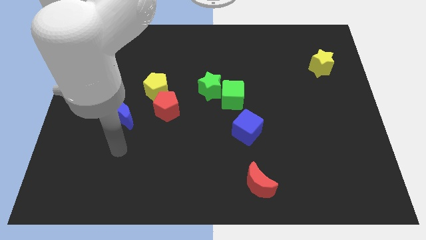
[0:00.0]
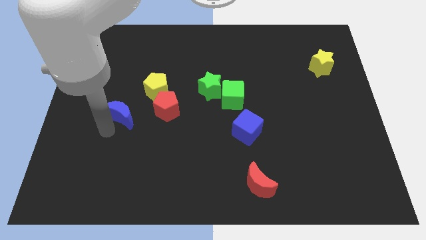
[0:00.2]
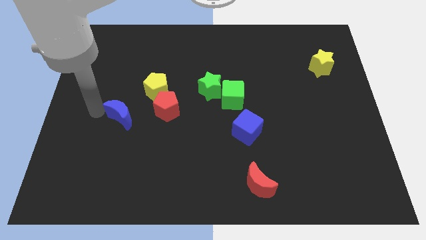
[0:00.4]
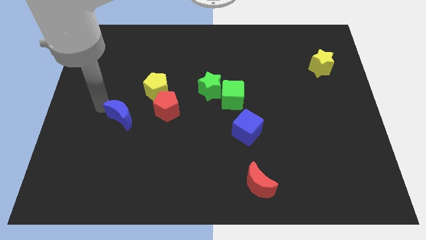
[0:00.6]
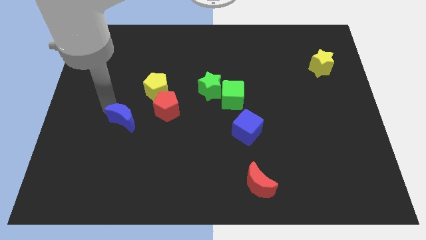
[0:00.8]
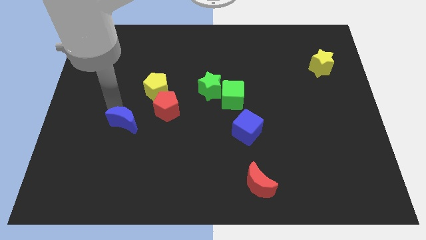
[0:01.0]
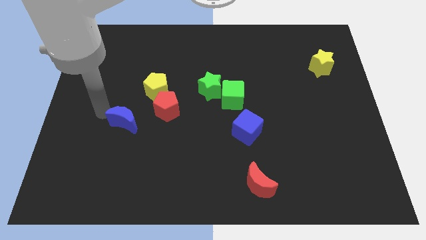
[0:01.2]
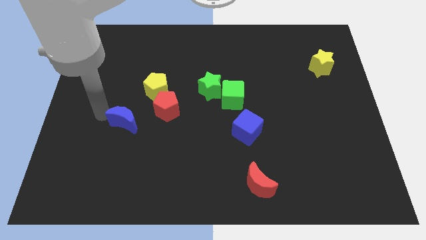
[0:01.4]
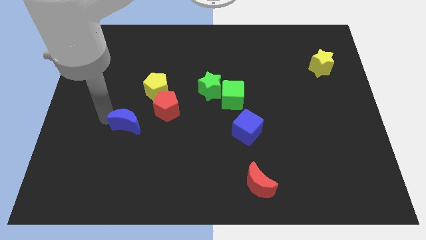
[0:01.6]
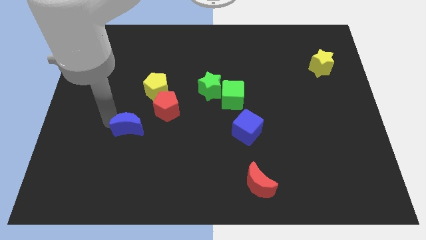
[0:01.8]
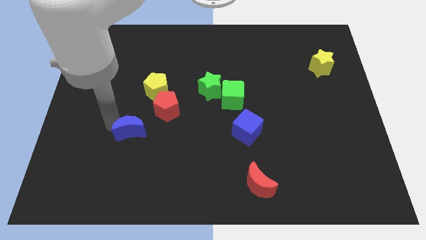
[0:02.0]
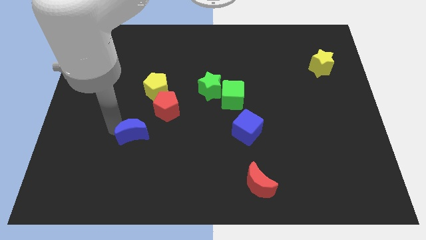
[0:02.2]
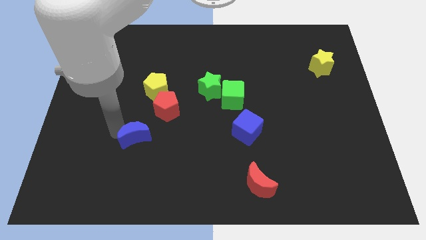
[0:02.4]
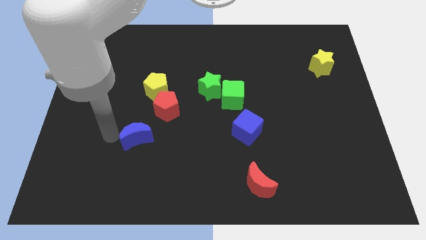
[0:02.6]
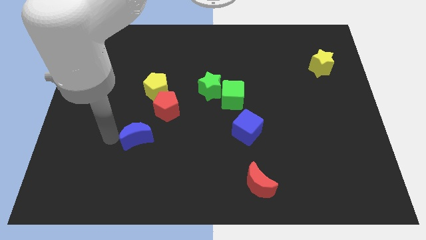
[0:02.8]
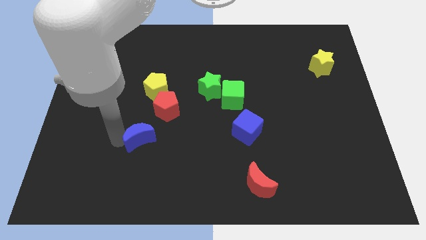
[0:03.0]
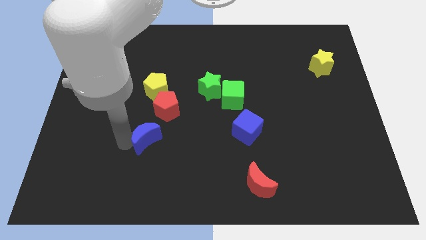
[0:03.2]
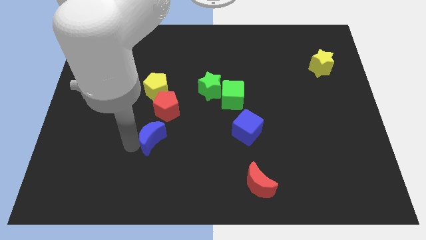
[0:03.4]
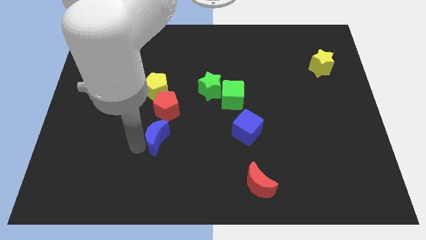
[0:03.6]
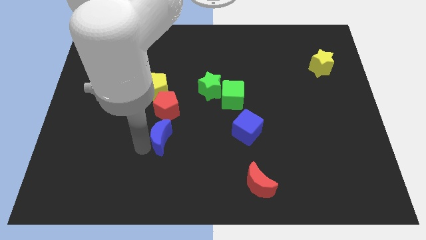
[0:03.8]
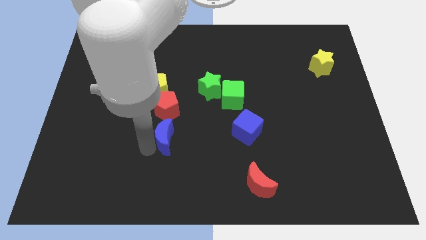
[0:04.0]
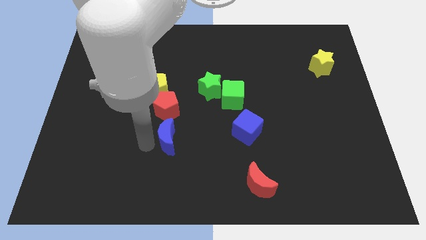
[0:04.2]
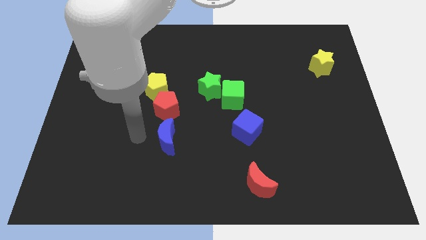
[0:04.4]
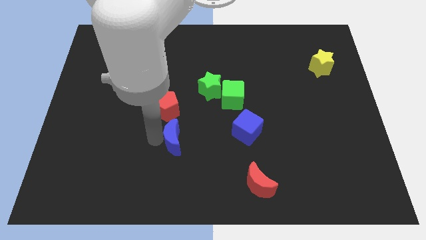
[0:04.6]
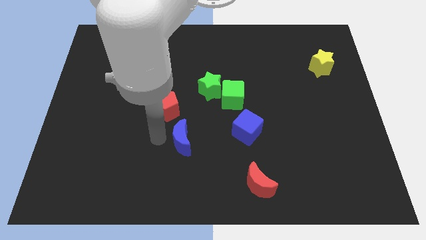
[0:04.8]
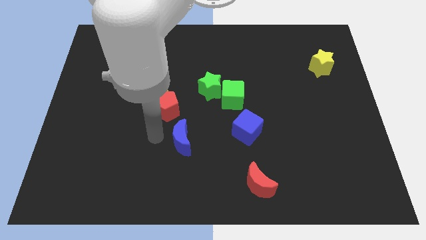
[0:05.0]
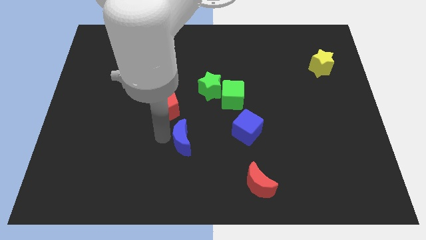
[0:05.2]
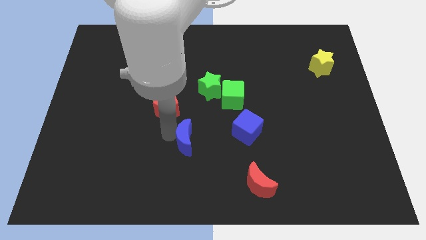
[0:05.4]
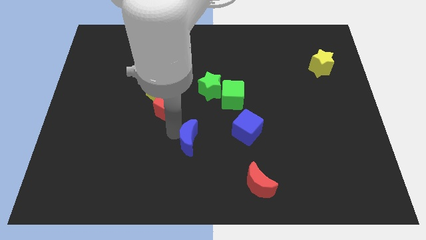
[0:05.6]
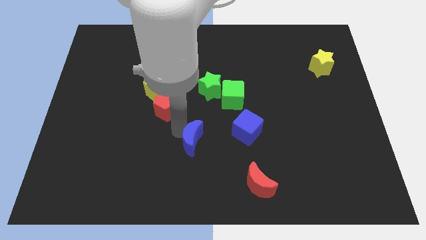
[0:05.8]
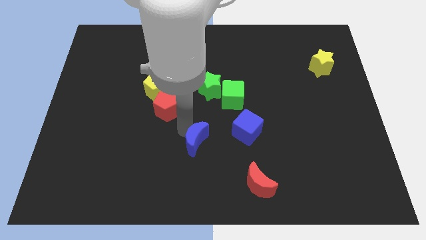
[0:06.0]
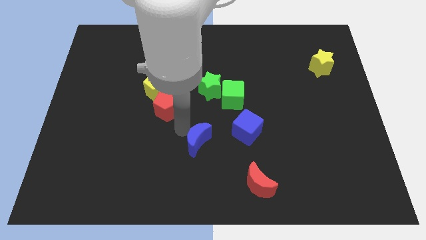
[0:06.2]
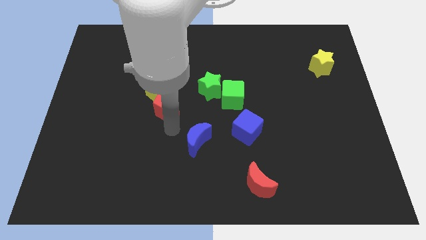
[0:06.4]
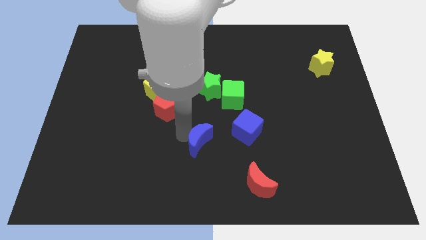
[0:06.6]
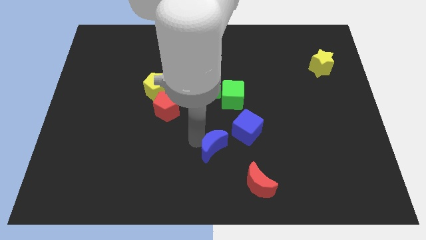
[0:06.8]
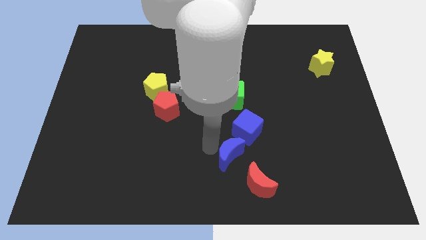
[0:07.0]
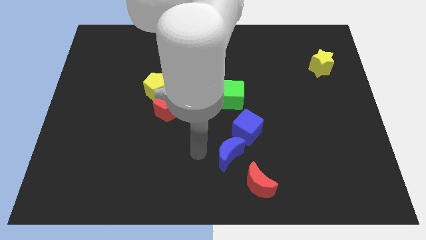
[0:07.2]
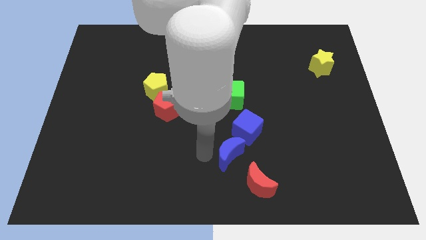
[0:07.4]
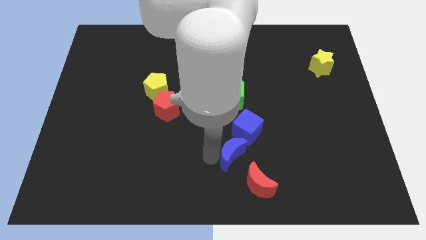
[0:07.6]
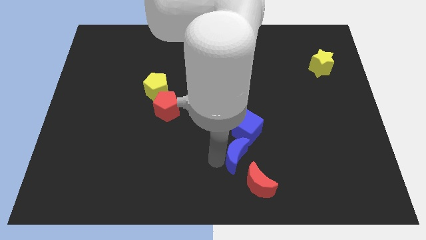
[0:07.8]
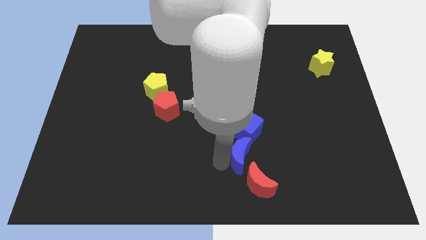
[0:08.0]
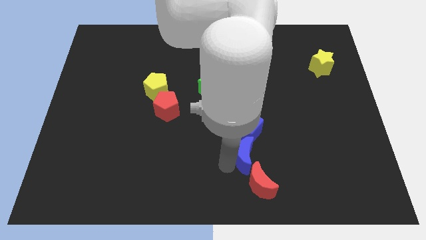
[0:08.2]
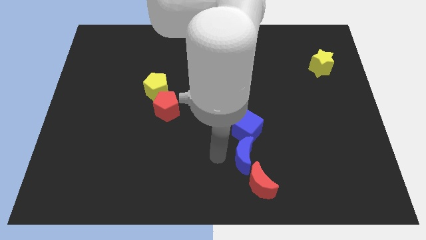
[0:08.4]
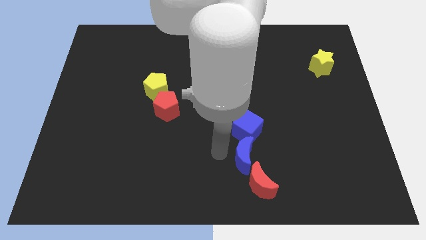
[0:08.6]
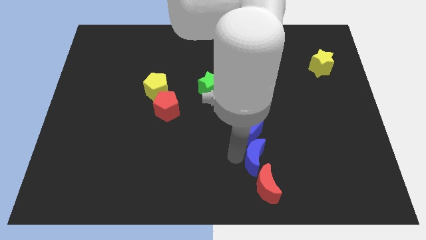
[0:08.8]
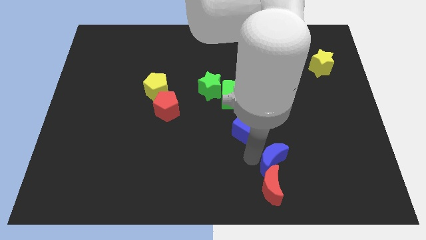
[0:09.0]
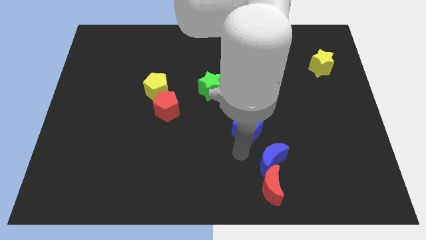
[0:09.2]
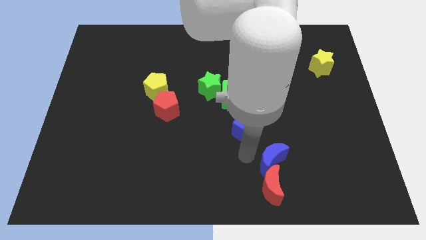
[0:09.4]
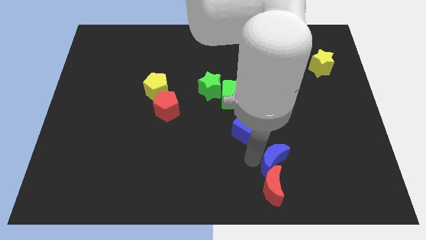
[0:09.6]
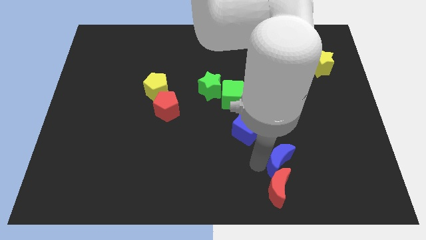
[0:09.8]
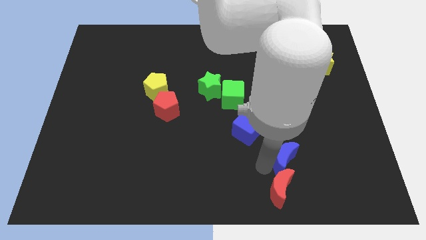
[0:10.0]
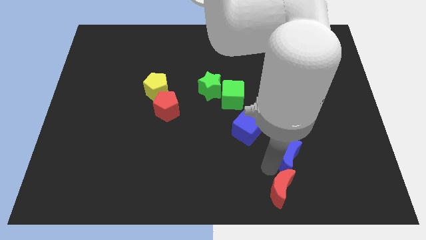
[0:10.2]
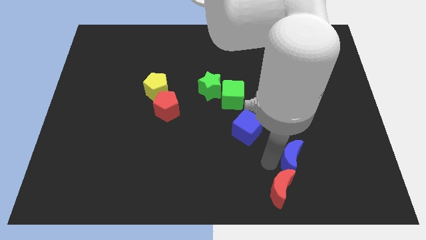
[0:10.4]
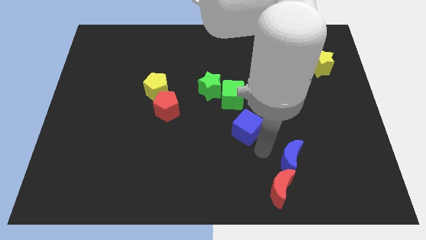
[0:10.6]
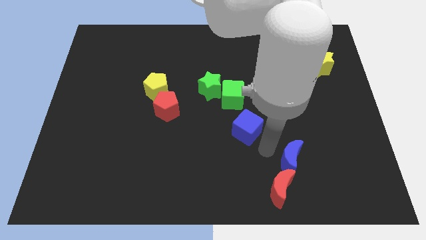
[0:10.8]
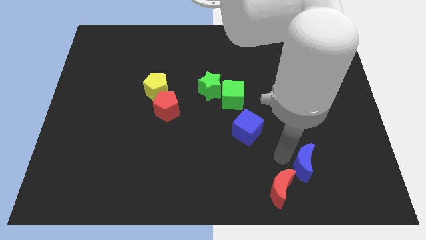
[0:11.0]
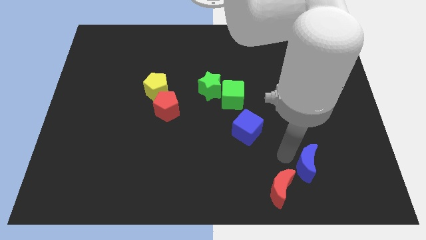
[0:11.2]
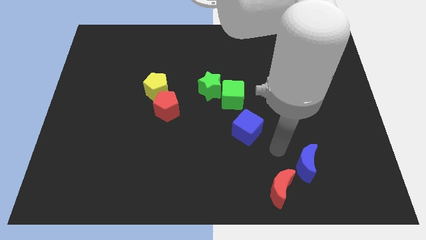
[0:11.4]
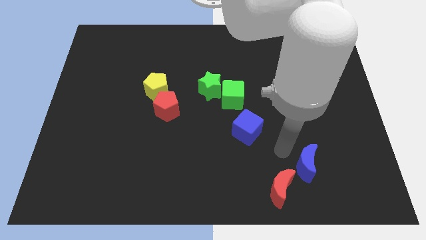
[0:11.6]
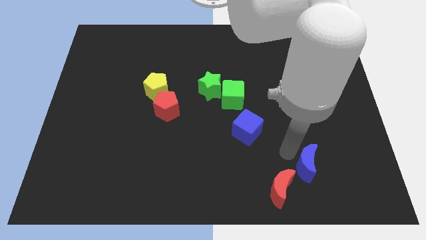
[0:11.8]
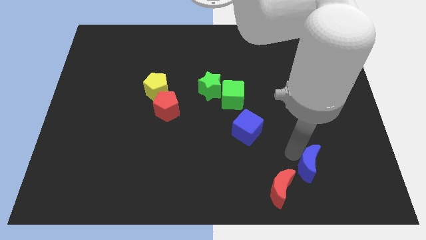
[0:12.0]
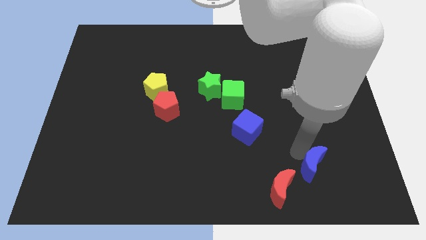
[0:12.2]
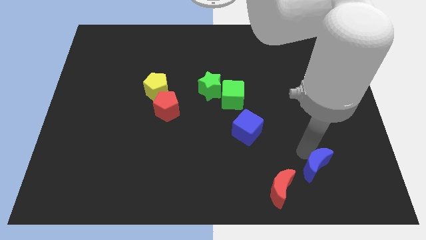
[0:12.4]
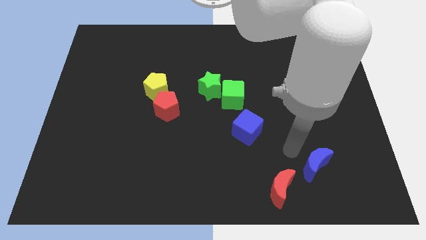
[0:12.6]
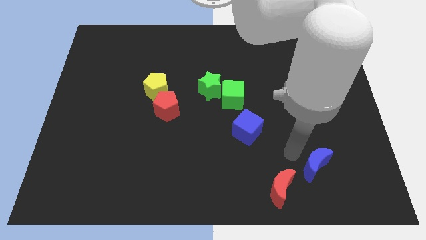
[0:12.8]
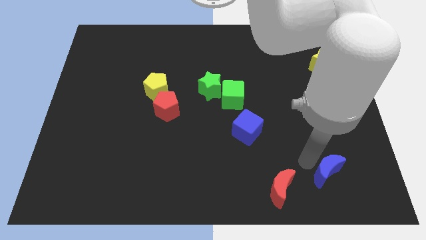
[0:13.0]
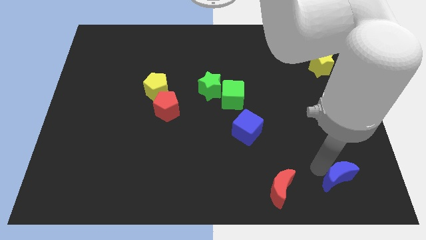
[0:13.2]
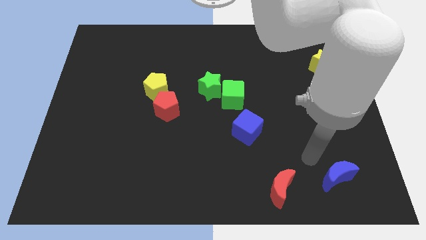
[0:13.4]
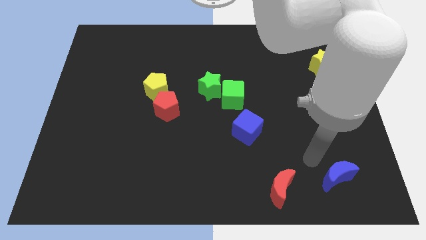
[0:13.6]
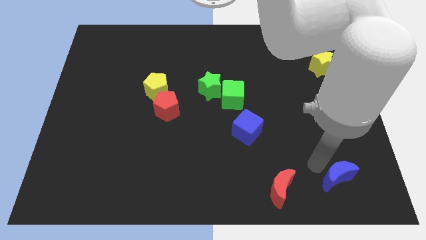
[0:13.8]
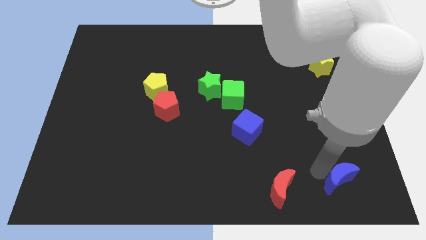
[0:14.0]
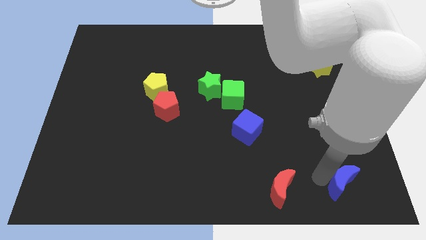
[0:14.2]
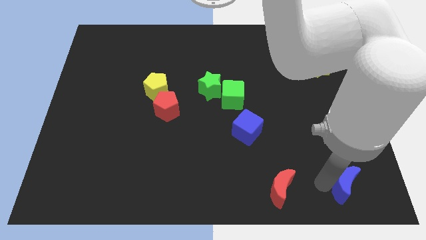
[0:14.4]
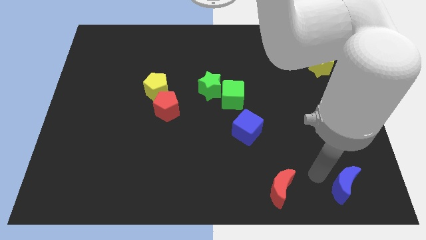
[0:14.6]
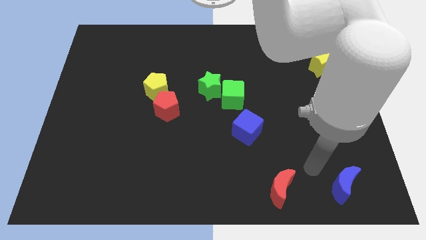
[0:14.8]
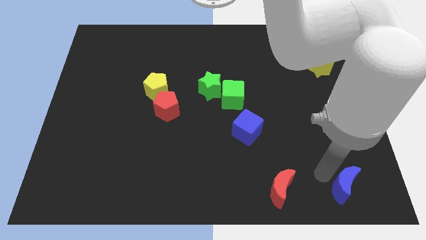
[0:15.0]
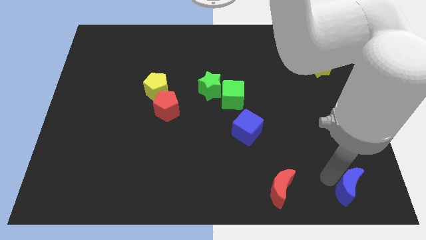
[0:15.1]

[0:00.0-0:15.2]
push the blue moon to the bottom right corner

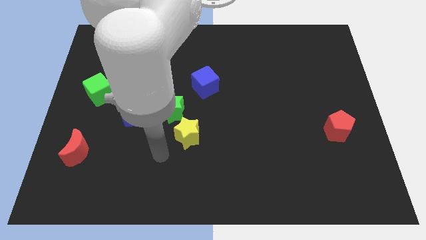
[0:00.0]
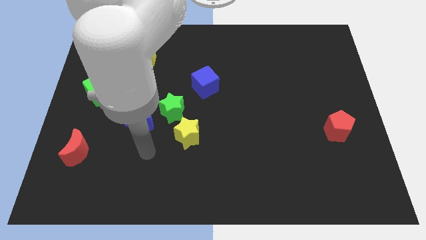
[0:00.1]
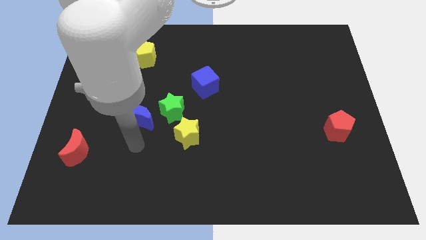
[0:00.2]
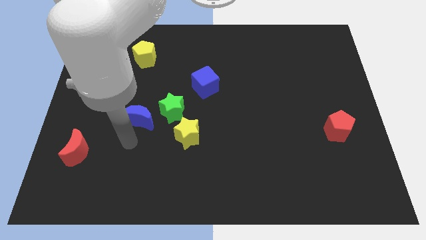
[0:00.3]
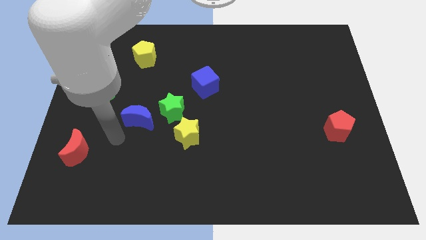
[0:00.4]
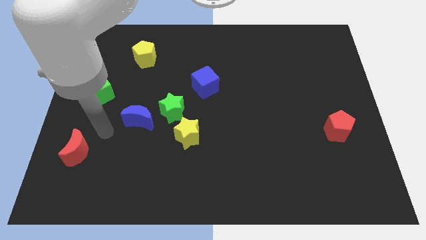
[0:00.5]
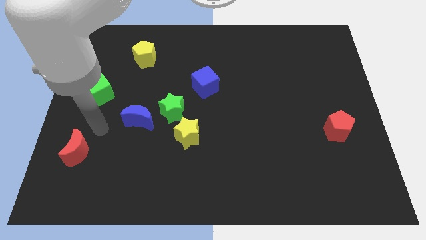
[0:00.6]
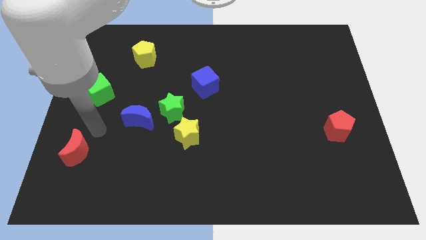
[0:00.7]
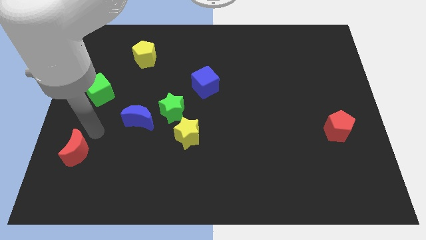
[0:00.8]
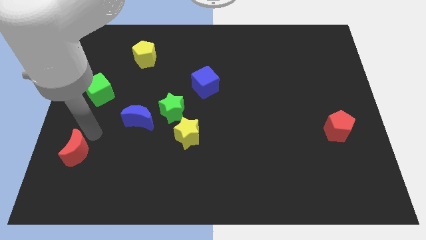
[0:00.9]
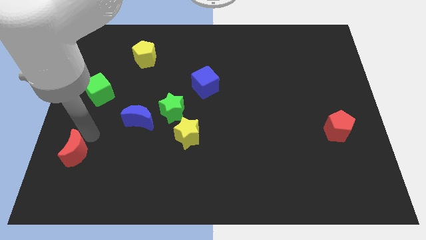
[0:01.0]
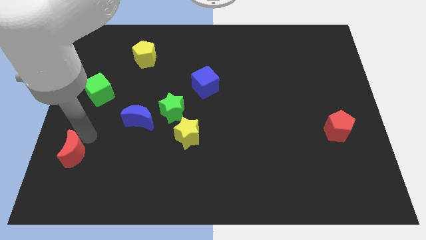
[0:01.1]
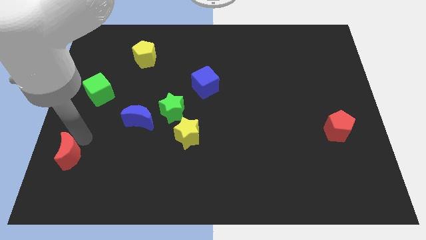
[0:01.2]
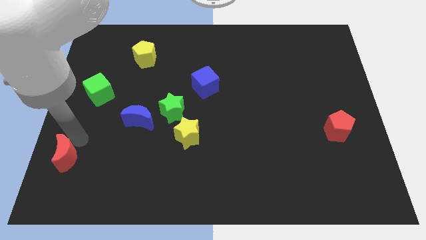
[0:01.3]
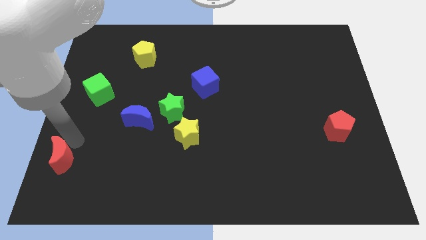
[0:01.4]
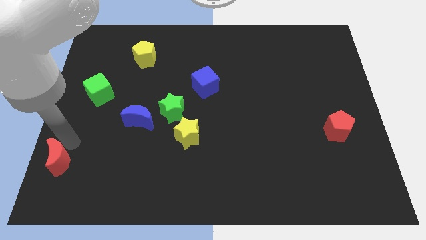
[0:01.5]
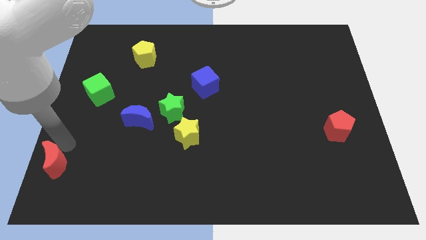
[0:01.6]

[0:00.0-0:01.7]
push the red moon to the bottom left of the board
